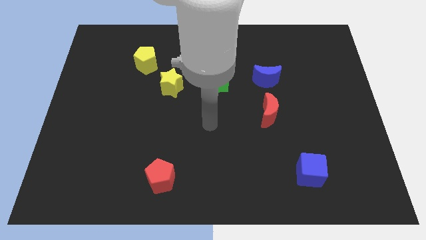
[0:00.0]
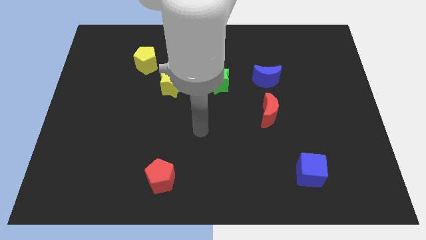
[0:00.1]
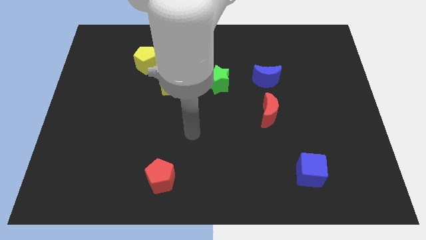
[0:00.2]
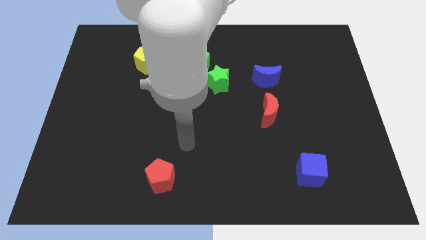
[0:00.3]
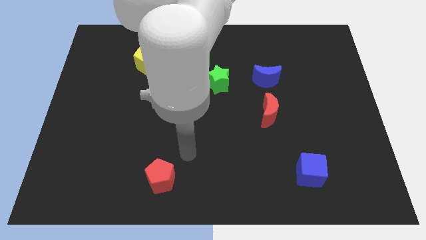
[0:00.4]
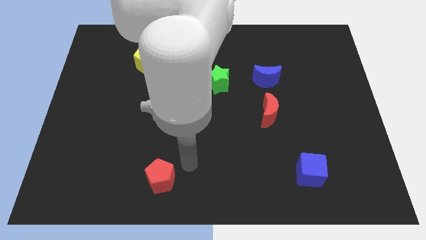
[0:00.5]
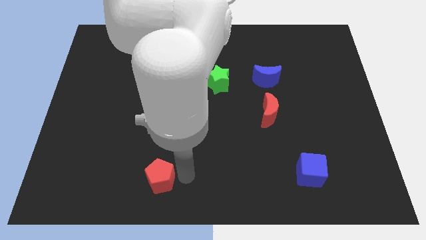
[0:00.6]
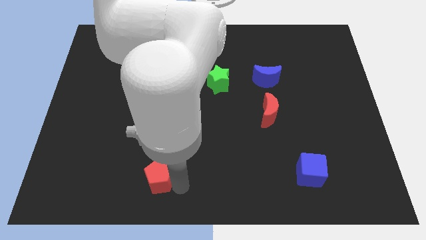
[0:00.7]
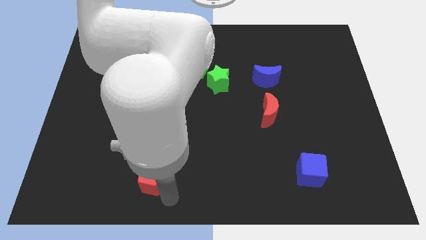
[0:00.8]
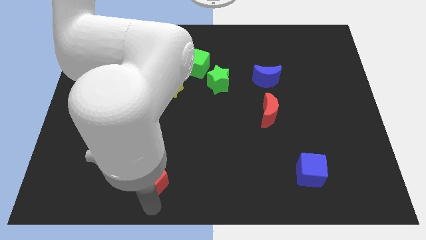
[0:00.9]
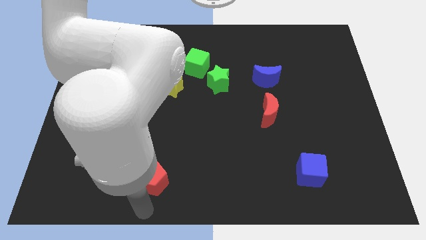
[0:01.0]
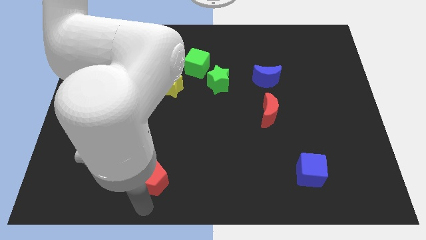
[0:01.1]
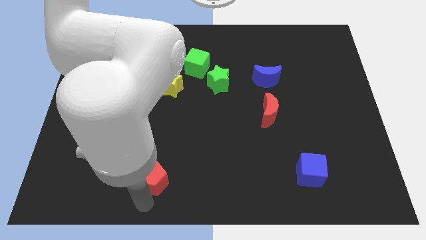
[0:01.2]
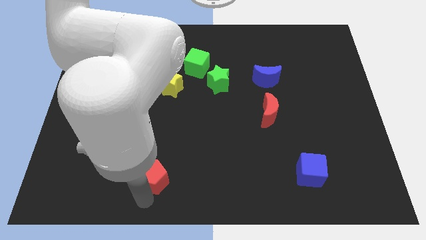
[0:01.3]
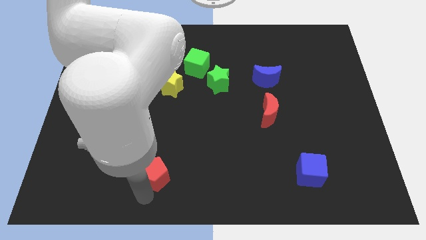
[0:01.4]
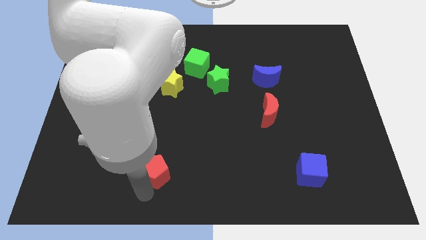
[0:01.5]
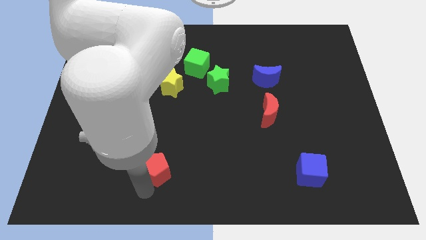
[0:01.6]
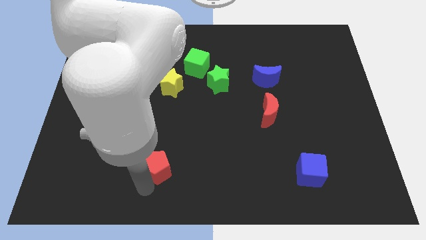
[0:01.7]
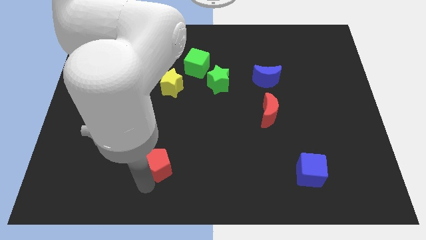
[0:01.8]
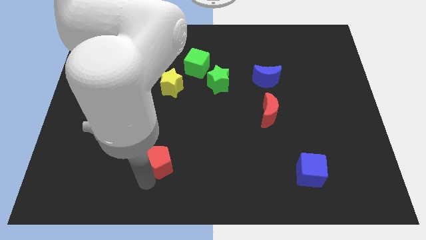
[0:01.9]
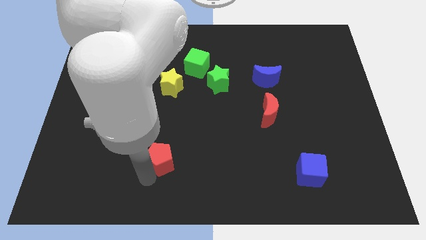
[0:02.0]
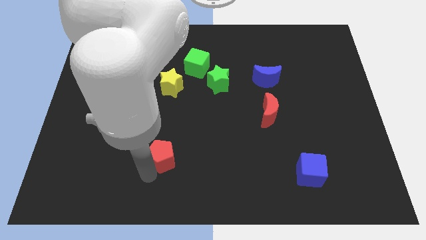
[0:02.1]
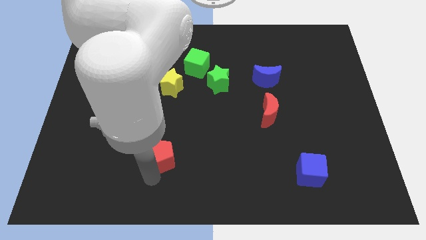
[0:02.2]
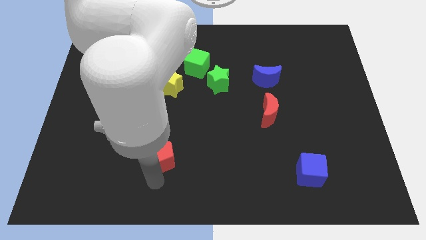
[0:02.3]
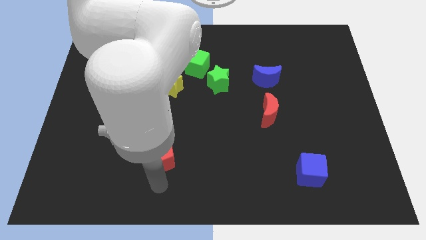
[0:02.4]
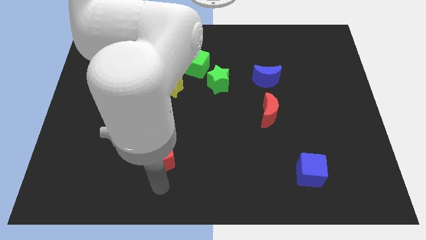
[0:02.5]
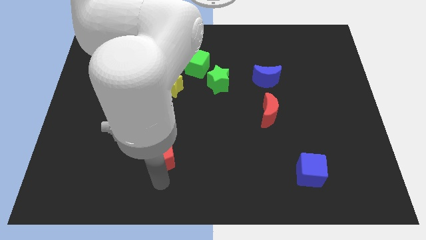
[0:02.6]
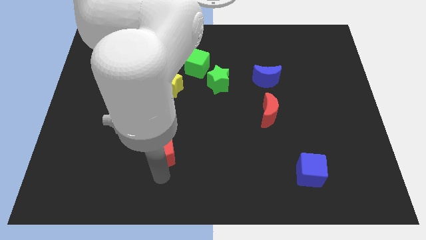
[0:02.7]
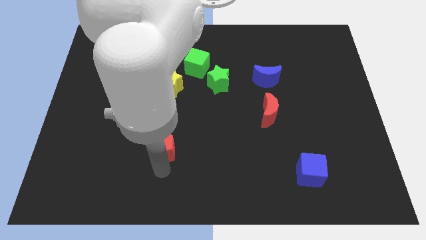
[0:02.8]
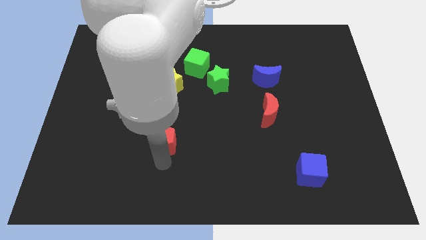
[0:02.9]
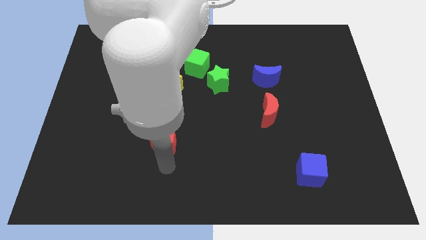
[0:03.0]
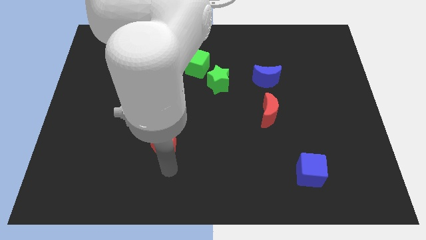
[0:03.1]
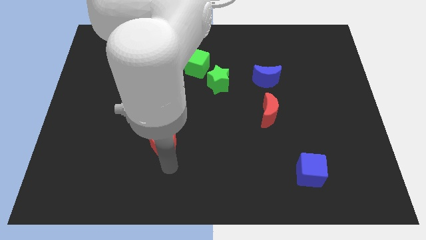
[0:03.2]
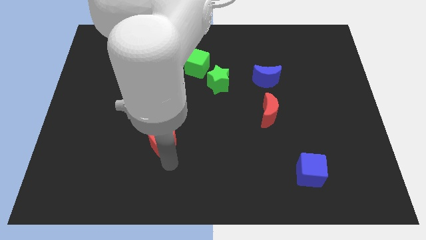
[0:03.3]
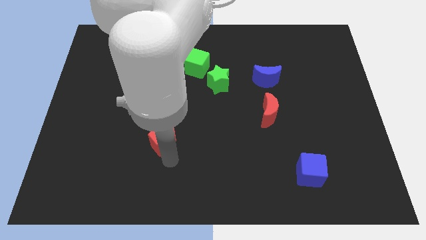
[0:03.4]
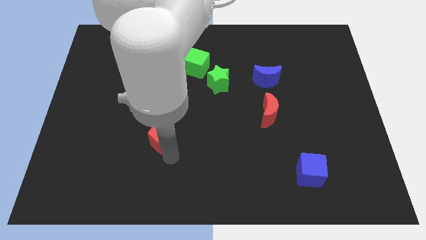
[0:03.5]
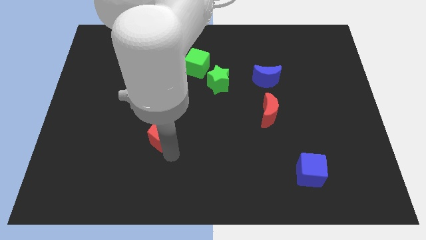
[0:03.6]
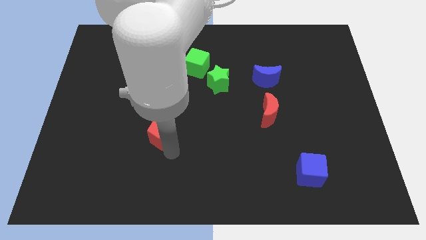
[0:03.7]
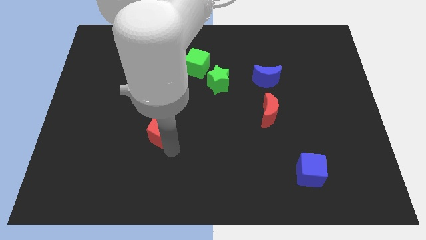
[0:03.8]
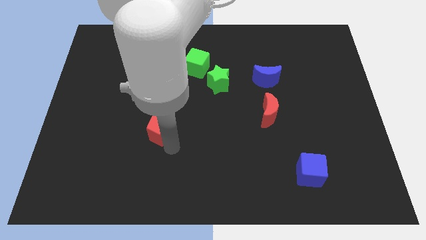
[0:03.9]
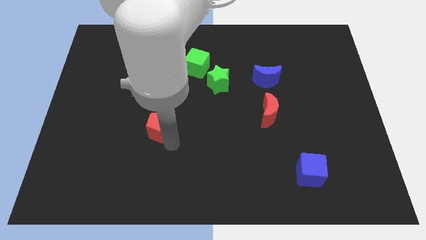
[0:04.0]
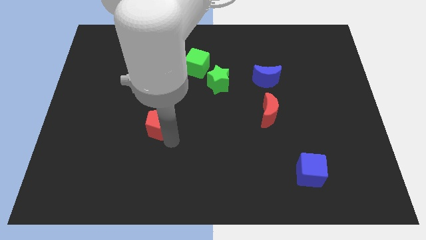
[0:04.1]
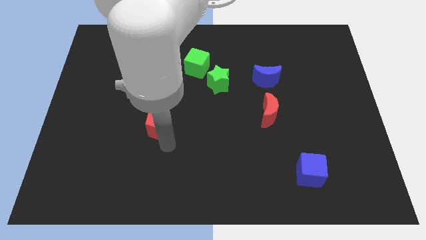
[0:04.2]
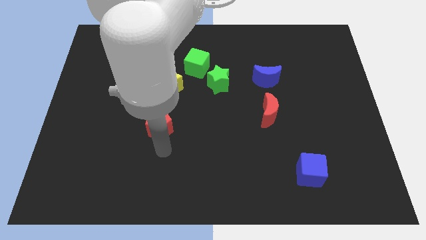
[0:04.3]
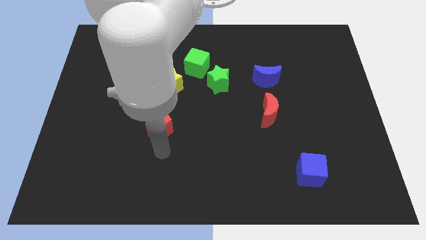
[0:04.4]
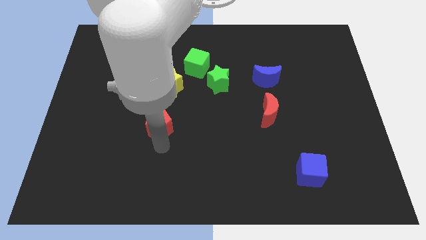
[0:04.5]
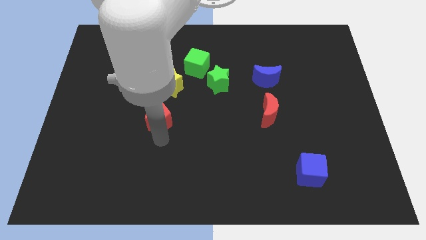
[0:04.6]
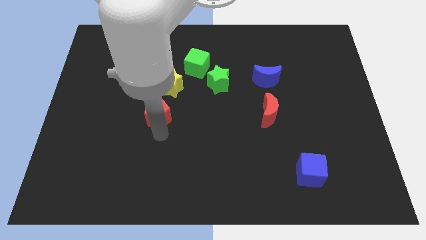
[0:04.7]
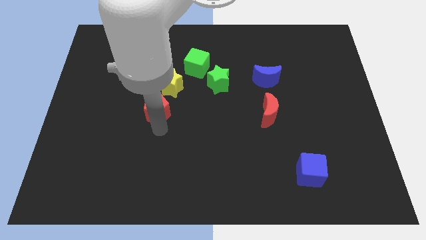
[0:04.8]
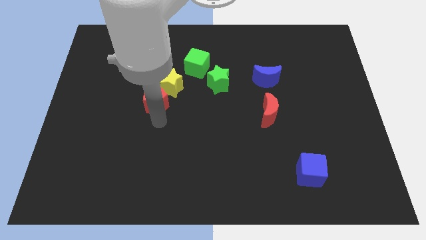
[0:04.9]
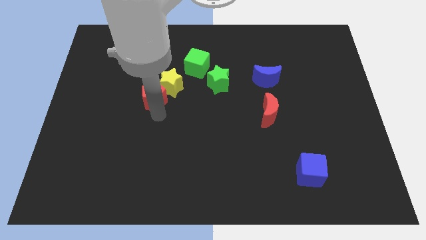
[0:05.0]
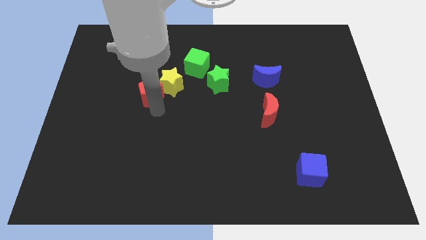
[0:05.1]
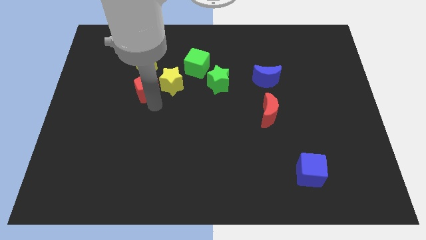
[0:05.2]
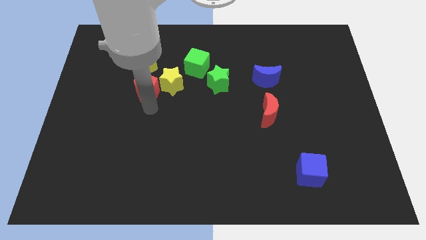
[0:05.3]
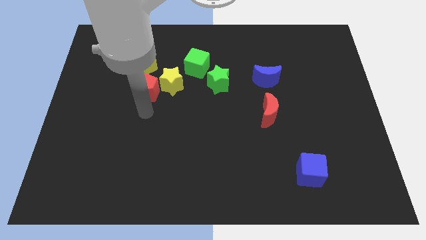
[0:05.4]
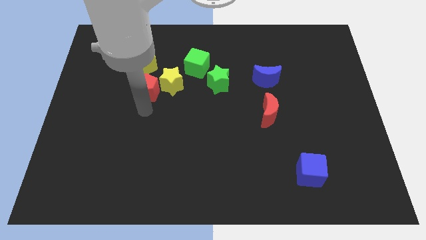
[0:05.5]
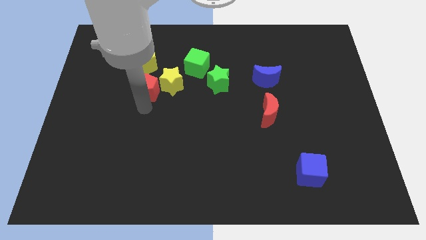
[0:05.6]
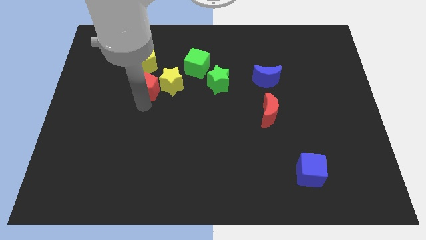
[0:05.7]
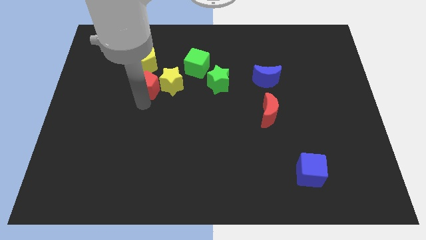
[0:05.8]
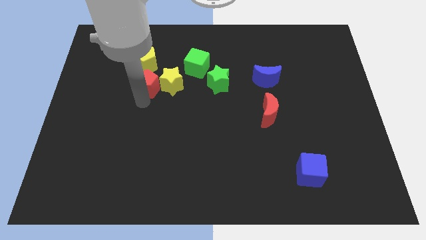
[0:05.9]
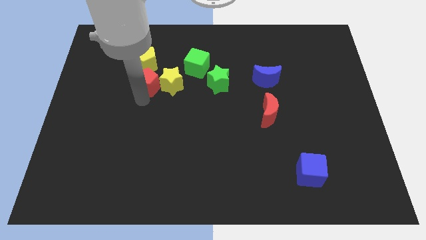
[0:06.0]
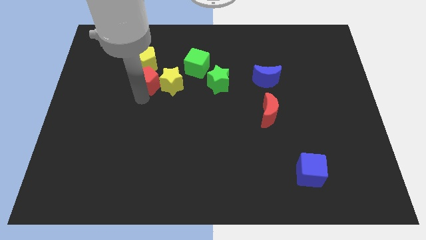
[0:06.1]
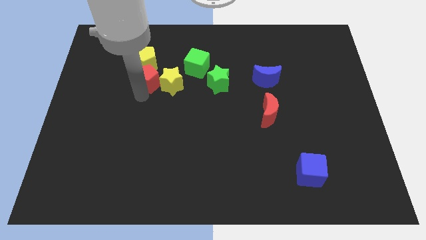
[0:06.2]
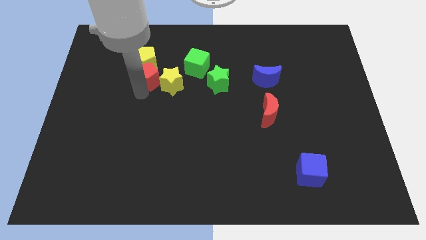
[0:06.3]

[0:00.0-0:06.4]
push the red pentagon close to the yellow pentagon

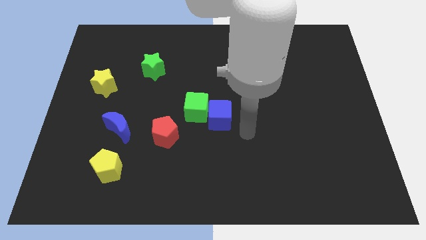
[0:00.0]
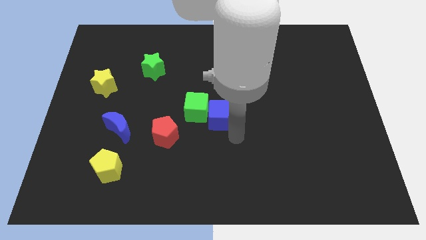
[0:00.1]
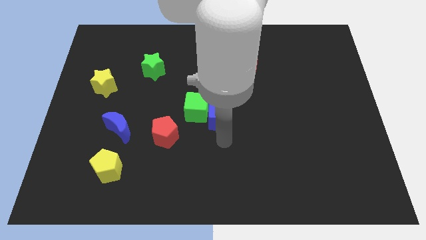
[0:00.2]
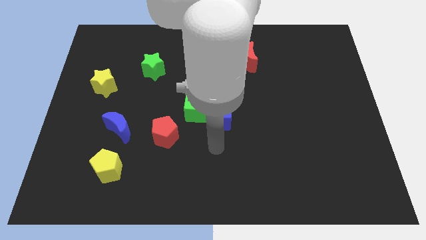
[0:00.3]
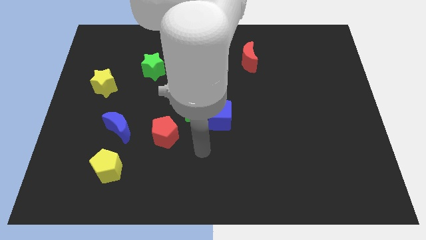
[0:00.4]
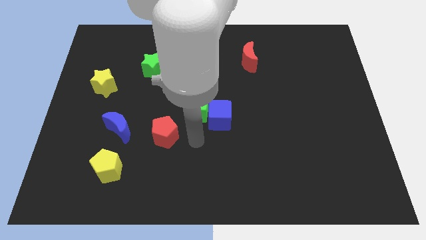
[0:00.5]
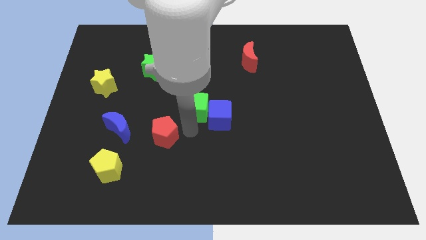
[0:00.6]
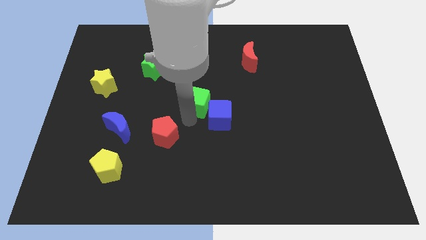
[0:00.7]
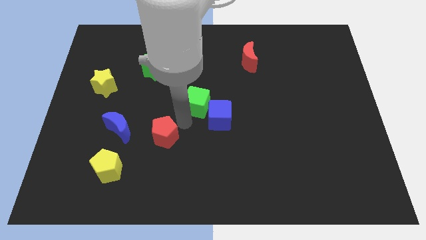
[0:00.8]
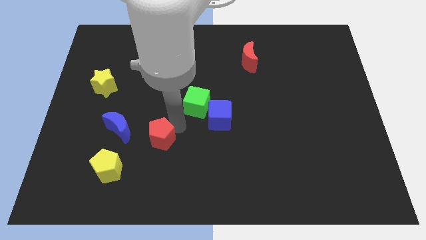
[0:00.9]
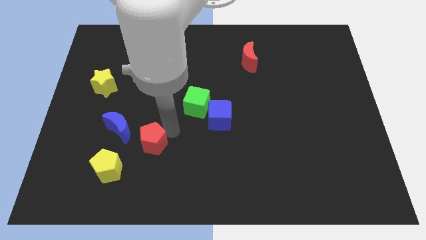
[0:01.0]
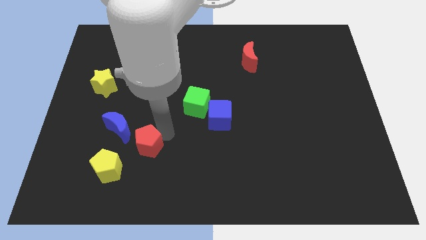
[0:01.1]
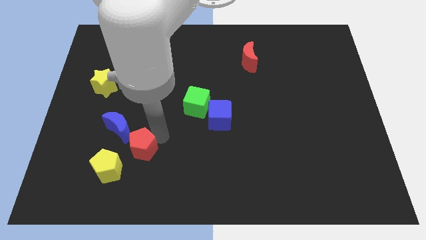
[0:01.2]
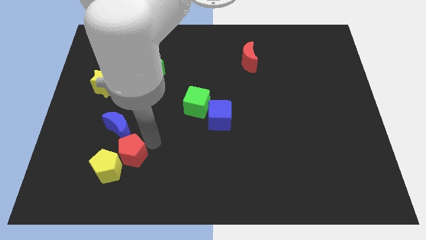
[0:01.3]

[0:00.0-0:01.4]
put the red pentagon to the yellow pentagon
